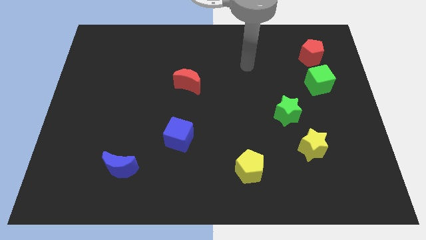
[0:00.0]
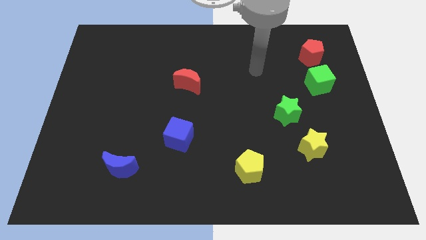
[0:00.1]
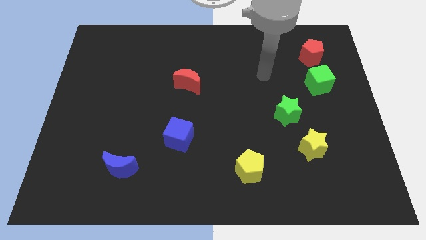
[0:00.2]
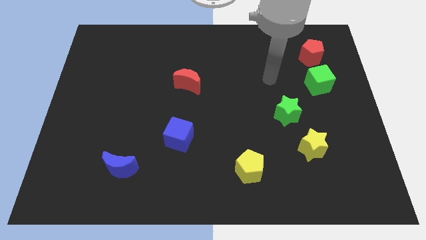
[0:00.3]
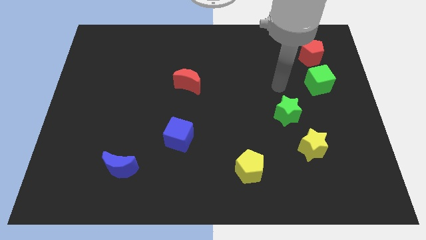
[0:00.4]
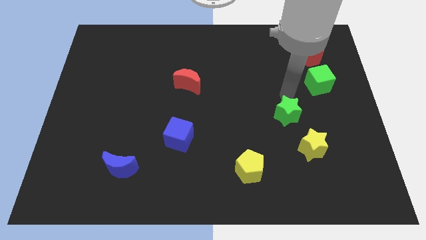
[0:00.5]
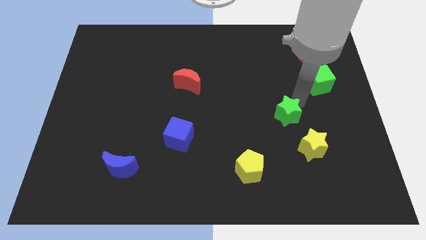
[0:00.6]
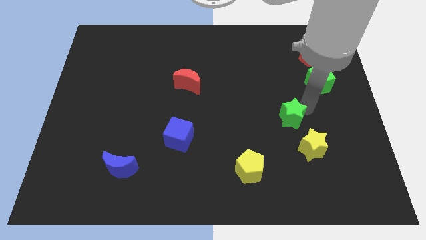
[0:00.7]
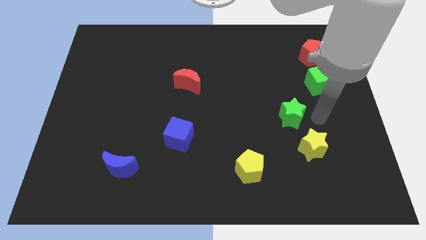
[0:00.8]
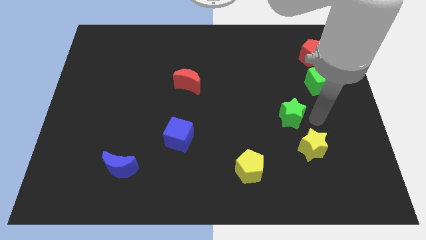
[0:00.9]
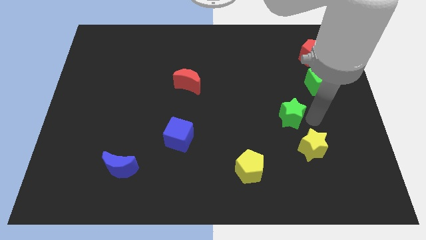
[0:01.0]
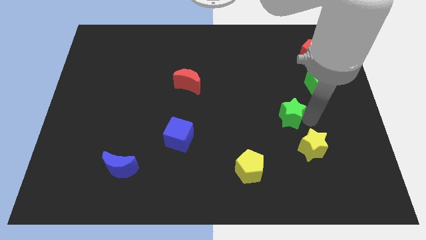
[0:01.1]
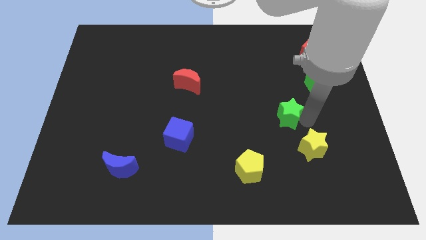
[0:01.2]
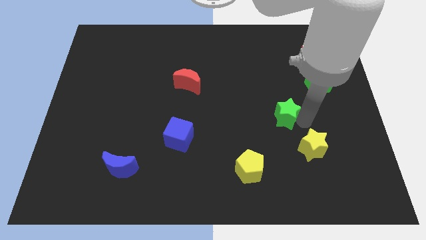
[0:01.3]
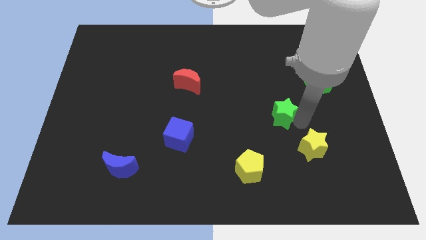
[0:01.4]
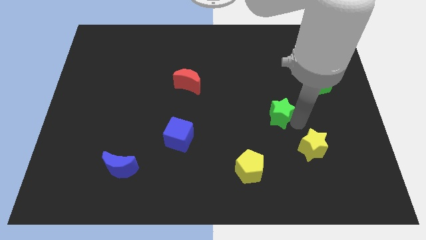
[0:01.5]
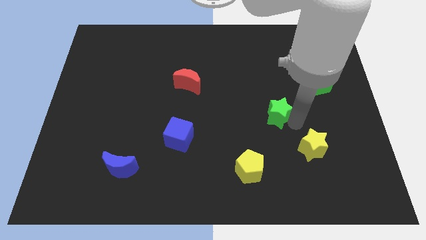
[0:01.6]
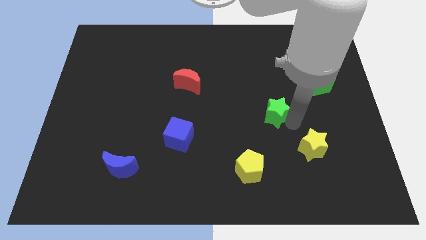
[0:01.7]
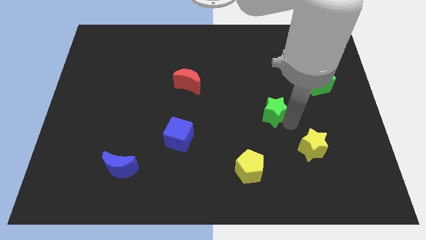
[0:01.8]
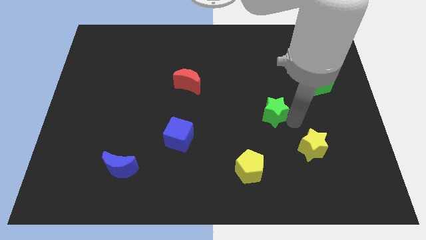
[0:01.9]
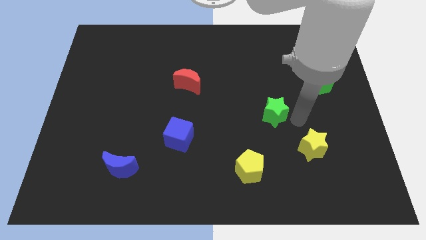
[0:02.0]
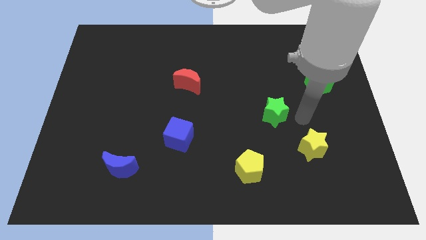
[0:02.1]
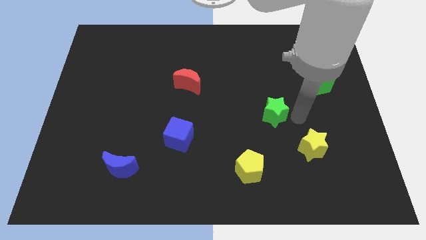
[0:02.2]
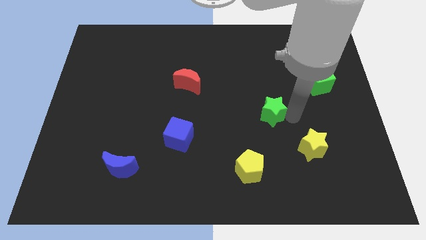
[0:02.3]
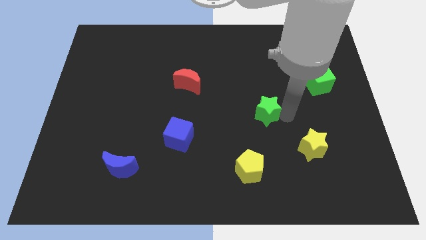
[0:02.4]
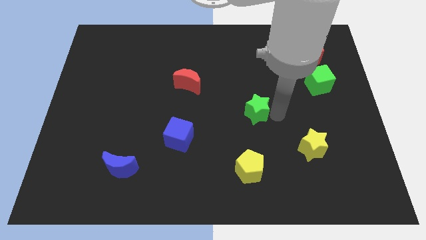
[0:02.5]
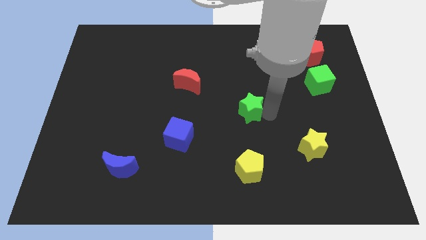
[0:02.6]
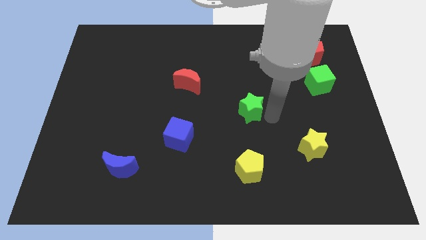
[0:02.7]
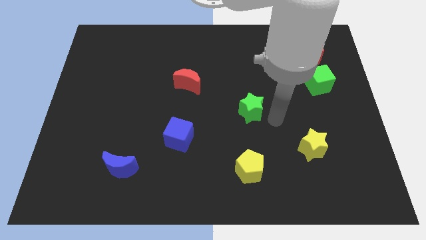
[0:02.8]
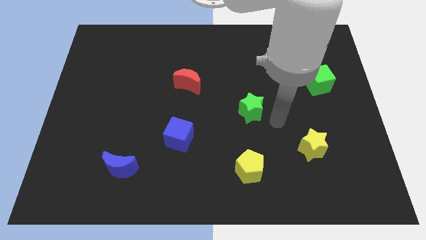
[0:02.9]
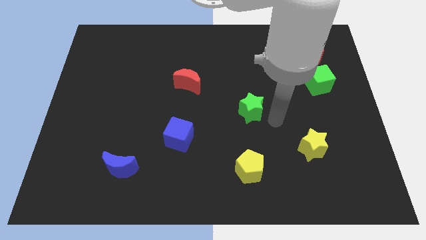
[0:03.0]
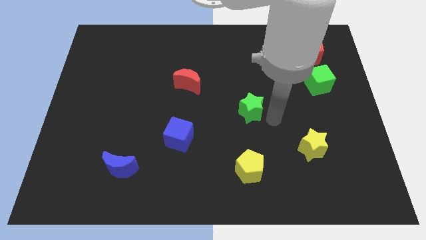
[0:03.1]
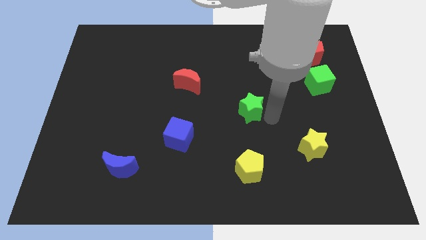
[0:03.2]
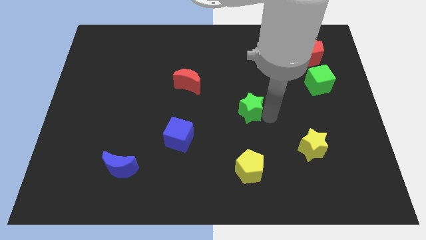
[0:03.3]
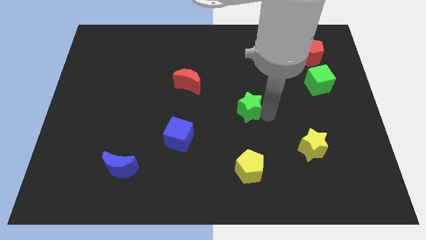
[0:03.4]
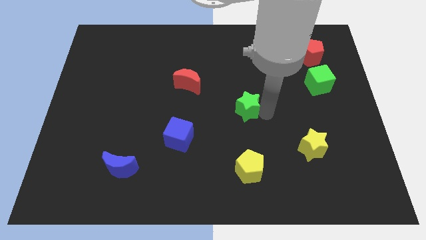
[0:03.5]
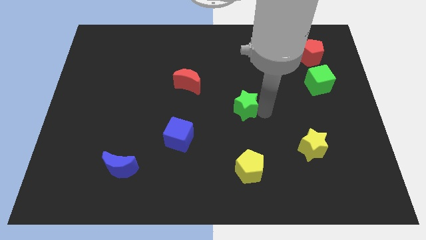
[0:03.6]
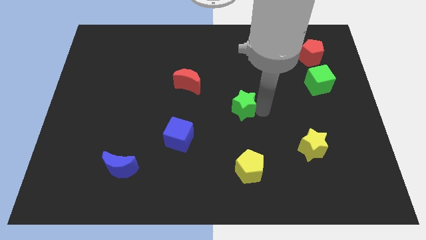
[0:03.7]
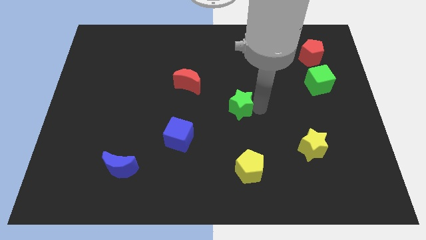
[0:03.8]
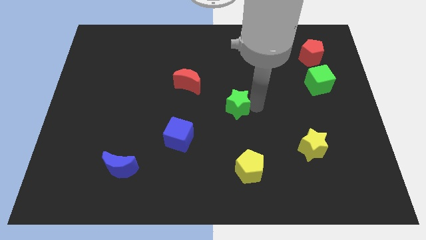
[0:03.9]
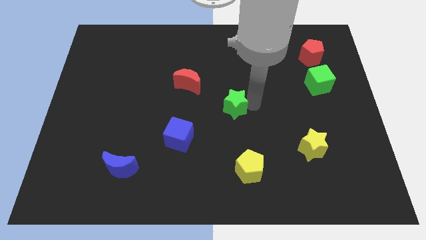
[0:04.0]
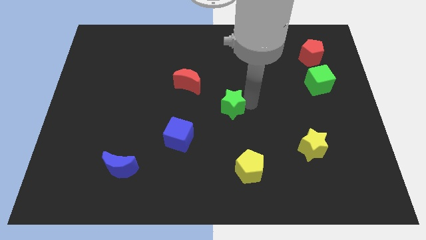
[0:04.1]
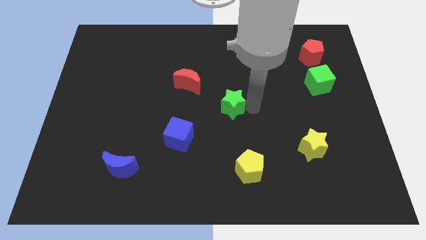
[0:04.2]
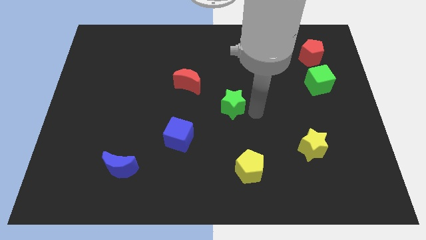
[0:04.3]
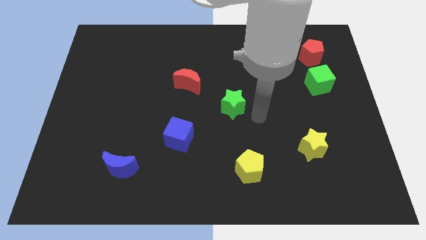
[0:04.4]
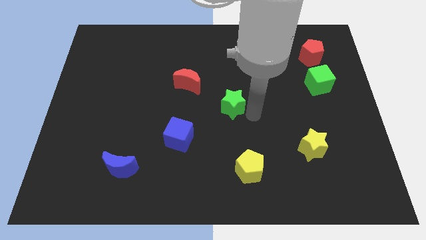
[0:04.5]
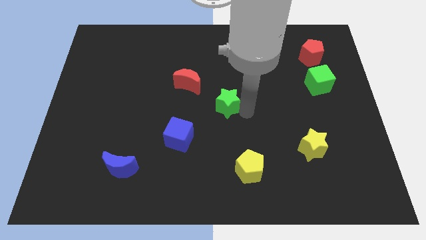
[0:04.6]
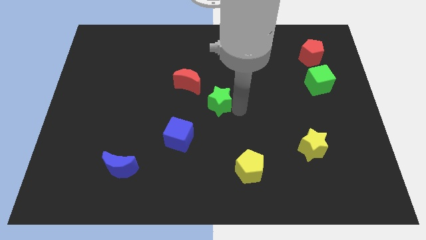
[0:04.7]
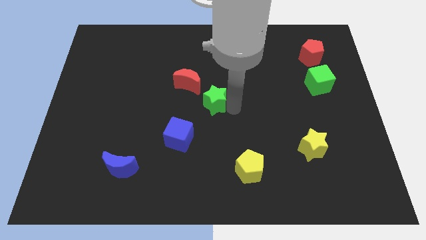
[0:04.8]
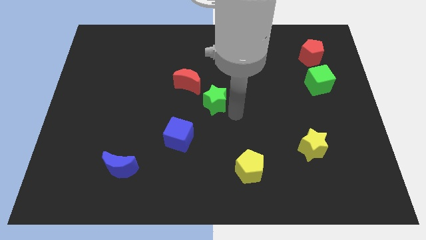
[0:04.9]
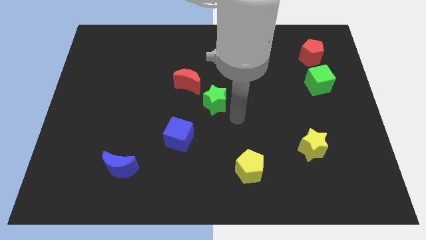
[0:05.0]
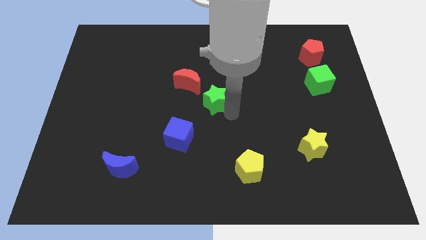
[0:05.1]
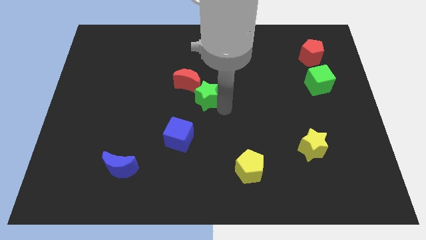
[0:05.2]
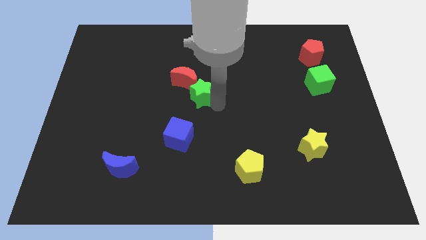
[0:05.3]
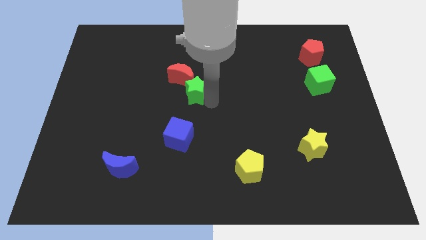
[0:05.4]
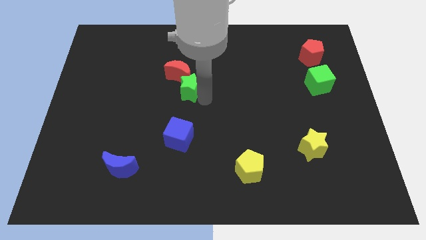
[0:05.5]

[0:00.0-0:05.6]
put the green star to the red moon

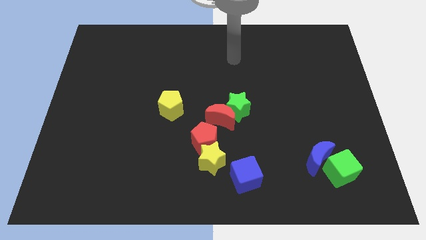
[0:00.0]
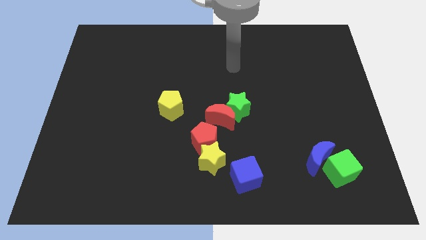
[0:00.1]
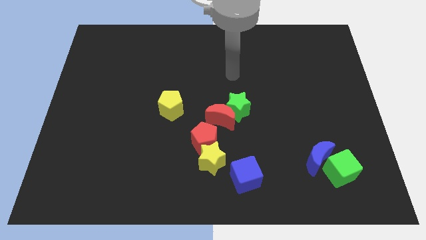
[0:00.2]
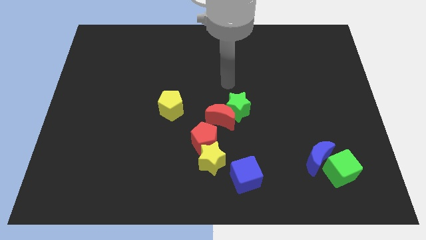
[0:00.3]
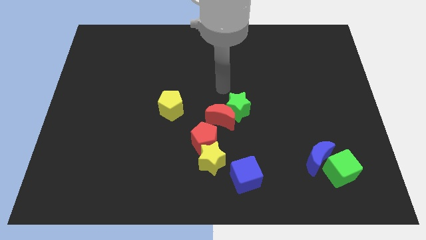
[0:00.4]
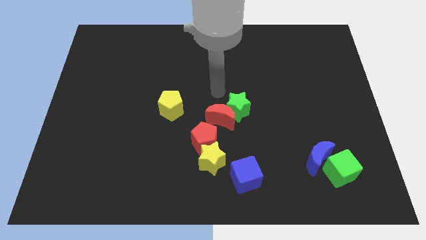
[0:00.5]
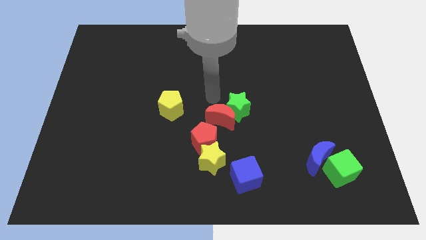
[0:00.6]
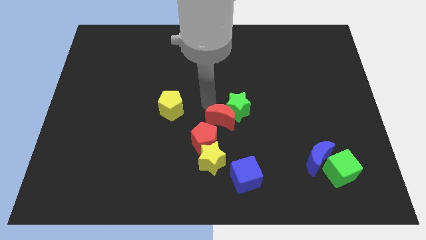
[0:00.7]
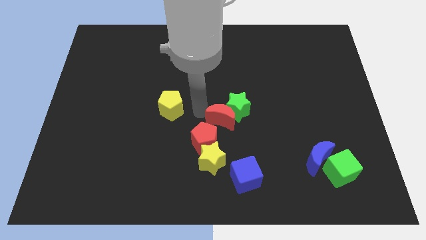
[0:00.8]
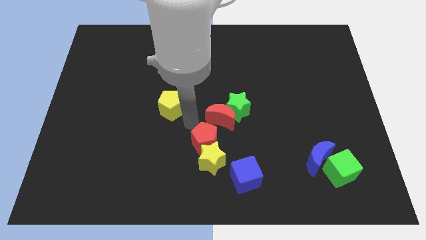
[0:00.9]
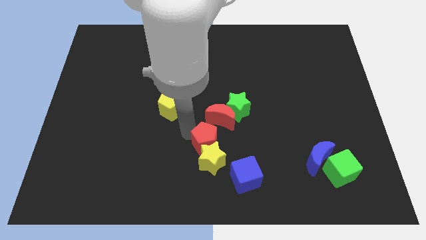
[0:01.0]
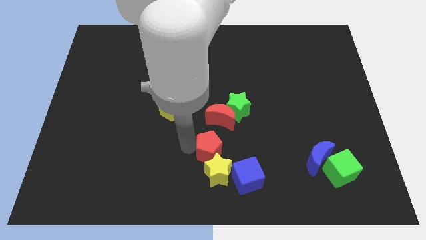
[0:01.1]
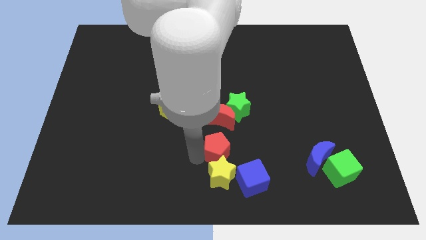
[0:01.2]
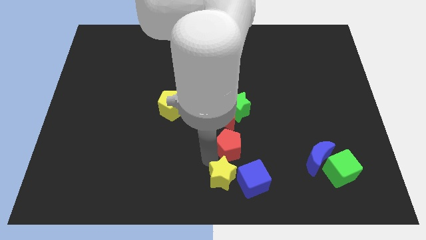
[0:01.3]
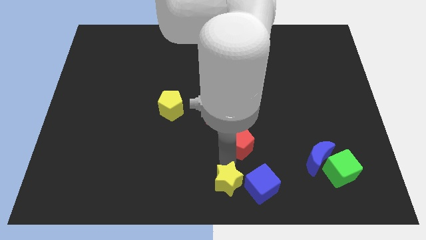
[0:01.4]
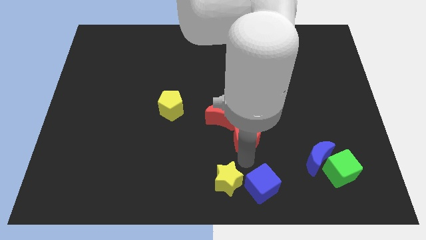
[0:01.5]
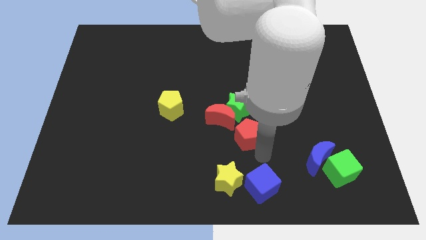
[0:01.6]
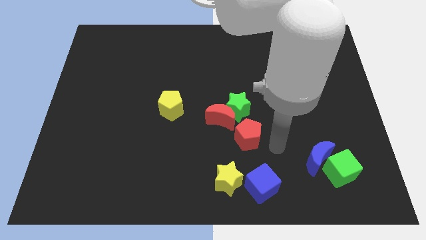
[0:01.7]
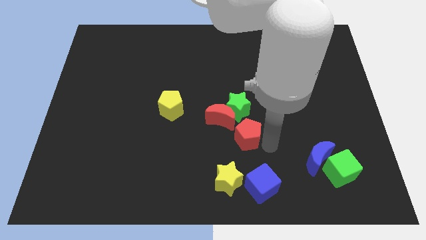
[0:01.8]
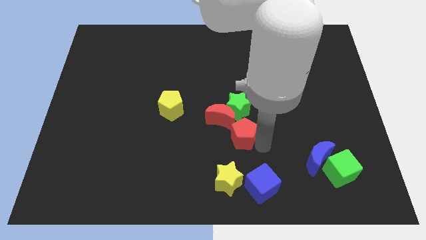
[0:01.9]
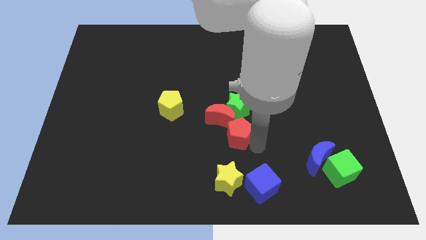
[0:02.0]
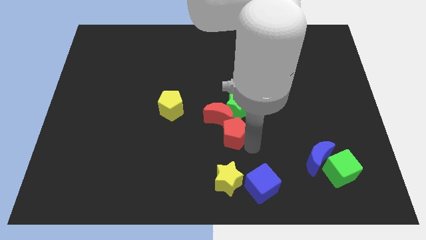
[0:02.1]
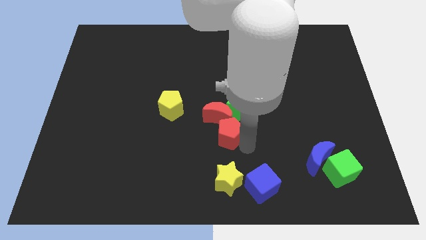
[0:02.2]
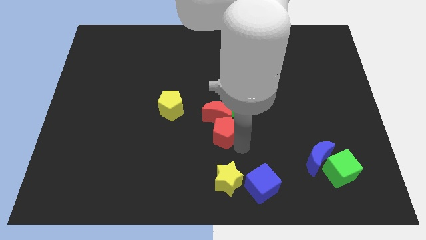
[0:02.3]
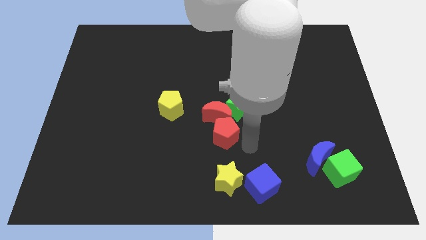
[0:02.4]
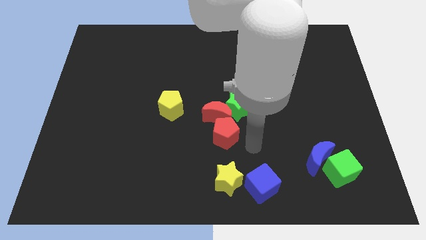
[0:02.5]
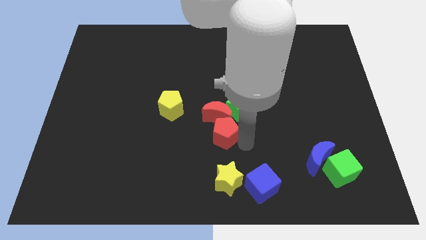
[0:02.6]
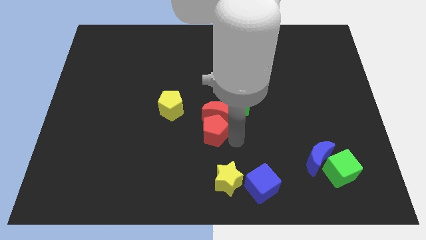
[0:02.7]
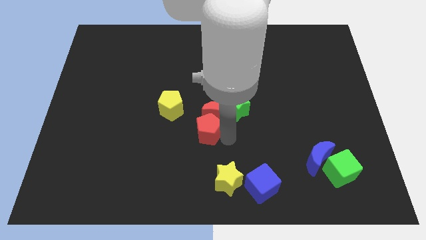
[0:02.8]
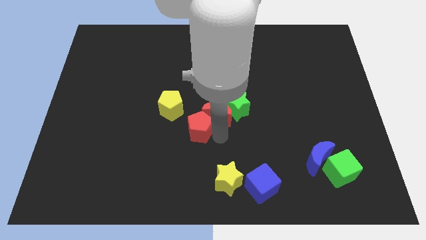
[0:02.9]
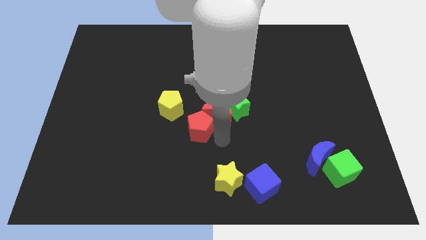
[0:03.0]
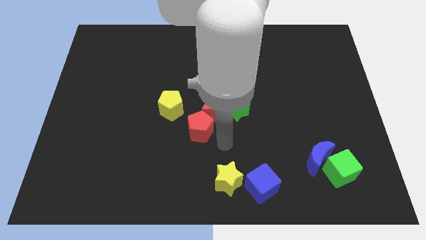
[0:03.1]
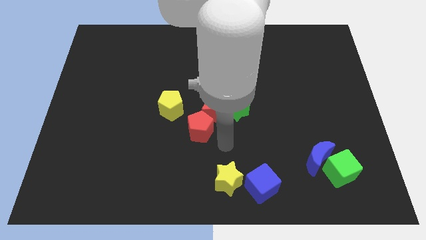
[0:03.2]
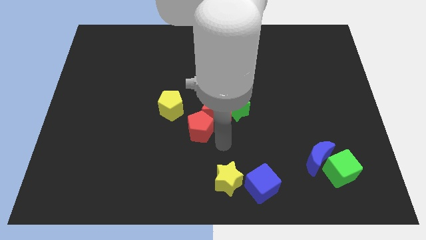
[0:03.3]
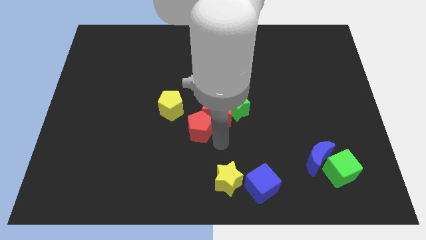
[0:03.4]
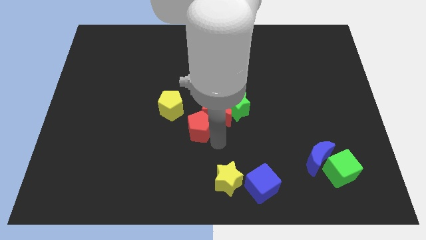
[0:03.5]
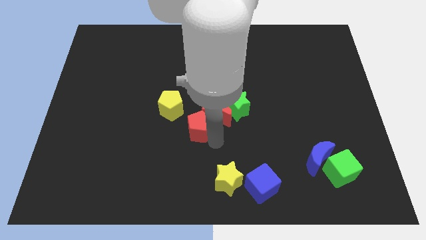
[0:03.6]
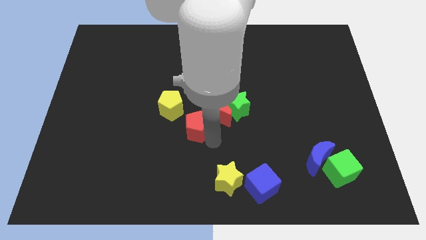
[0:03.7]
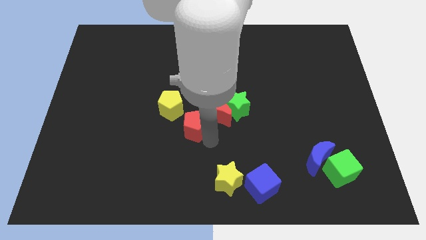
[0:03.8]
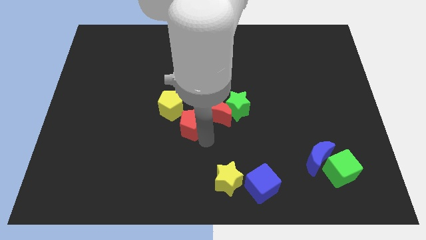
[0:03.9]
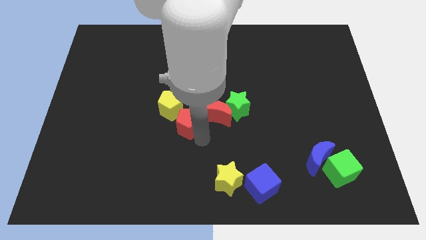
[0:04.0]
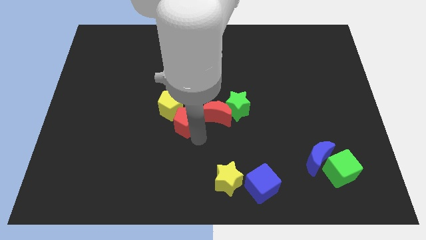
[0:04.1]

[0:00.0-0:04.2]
push the red pentagon towards the yellow pentagon
